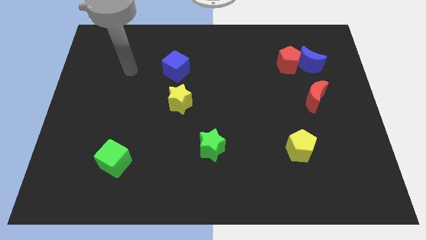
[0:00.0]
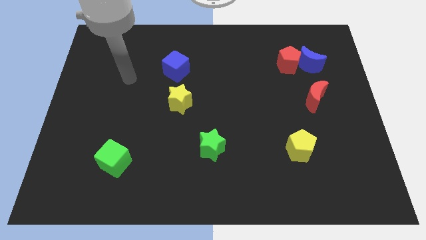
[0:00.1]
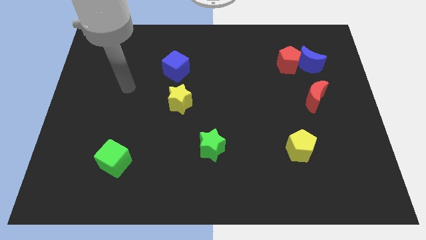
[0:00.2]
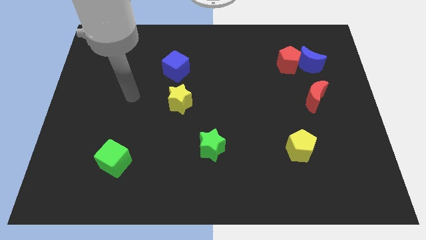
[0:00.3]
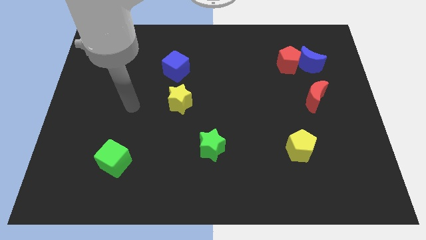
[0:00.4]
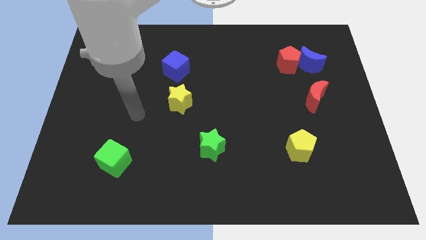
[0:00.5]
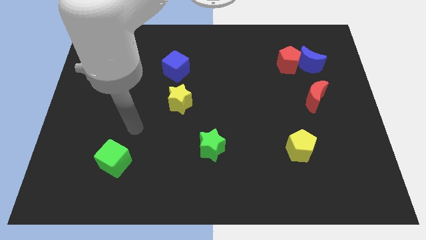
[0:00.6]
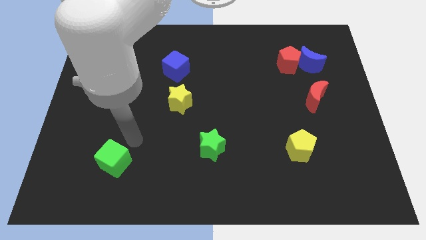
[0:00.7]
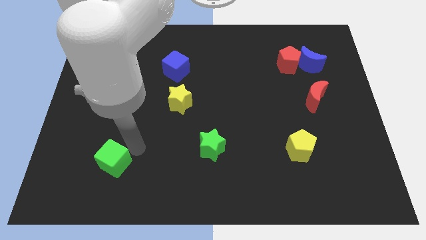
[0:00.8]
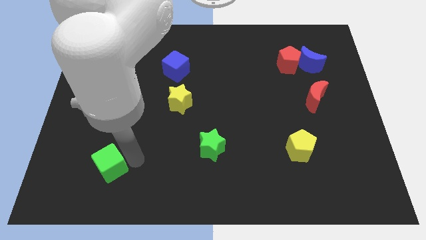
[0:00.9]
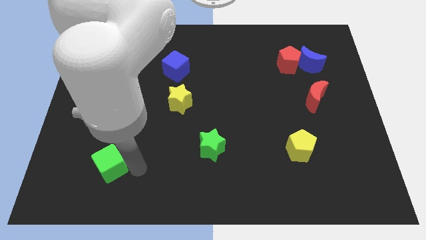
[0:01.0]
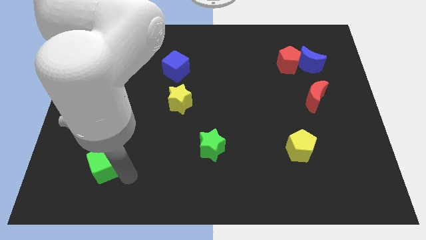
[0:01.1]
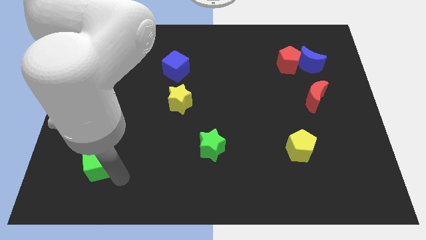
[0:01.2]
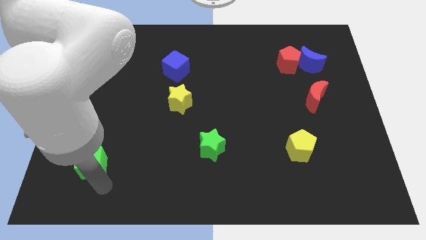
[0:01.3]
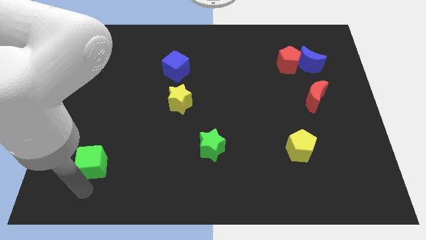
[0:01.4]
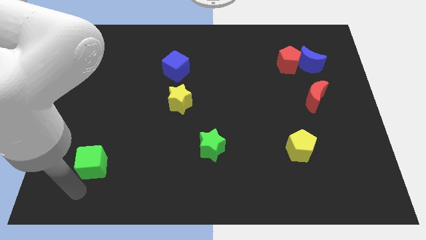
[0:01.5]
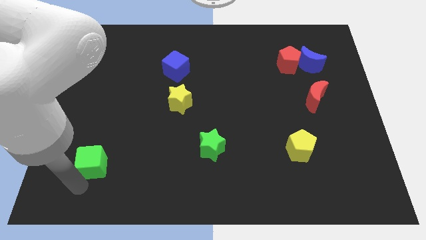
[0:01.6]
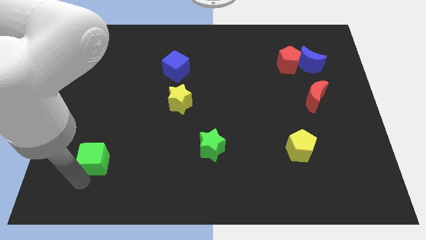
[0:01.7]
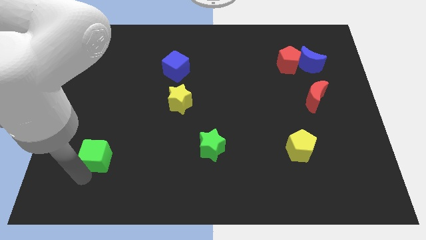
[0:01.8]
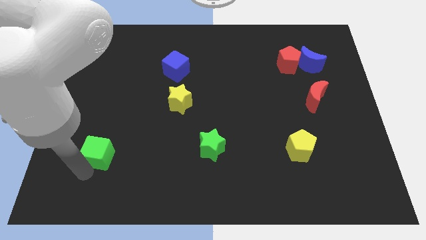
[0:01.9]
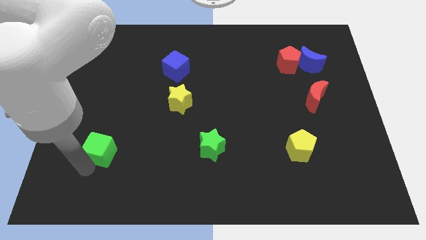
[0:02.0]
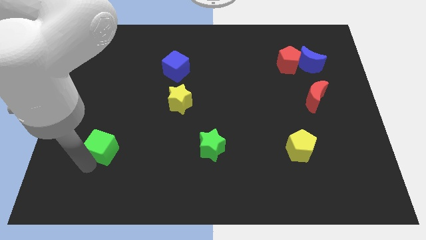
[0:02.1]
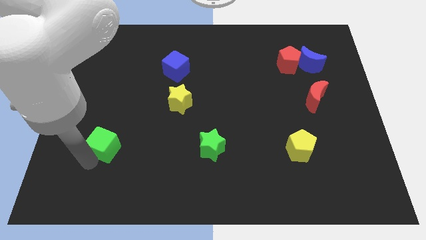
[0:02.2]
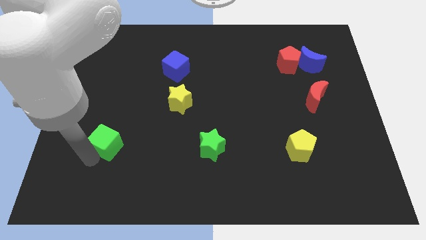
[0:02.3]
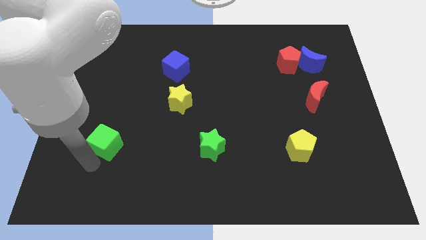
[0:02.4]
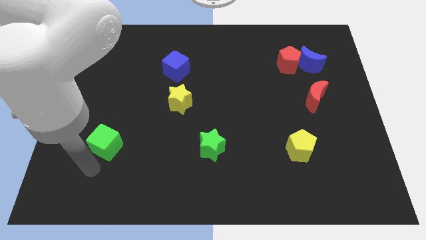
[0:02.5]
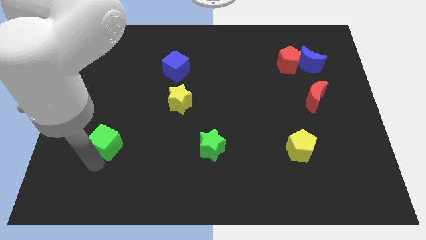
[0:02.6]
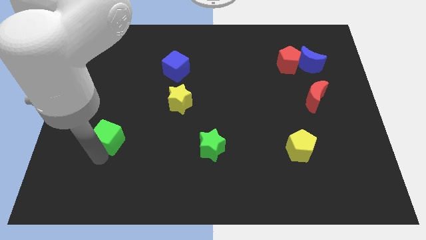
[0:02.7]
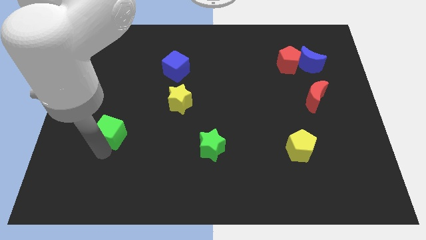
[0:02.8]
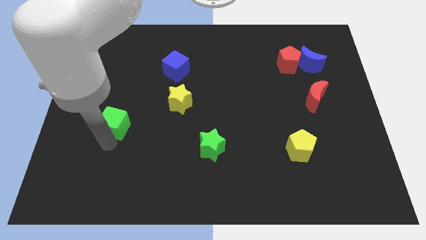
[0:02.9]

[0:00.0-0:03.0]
slightly slide the green cube up

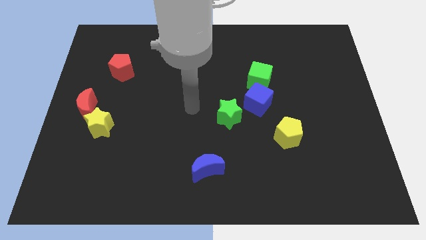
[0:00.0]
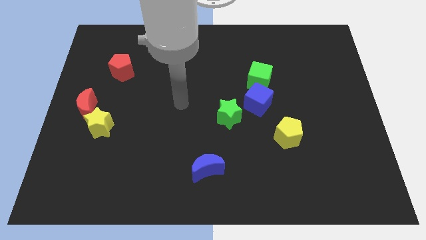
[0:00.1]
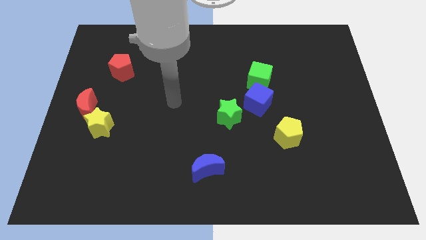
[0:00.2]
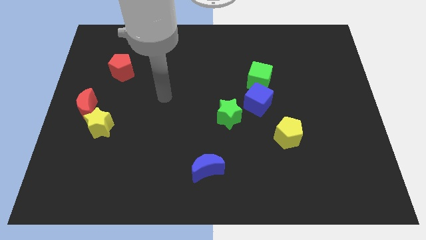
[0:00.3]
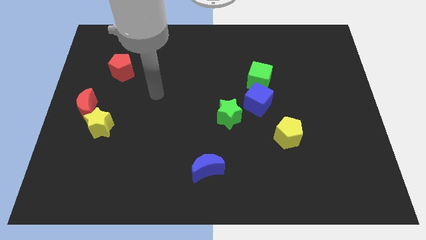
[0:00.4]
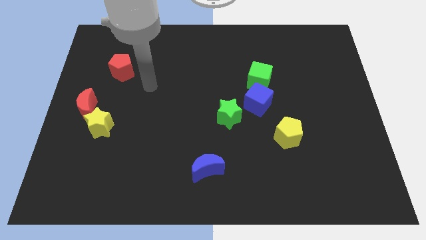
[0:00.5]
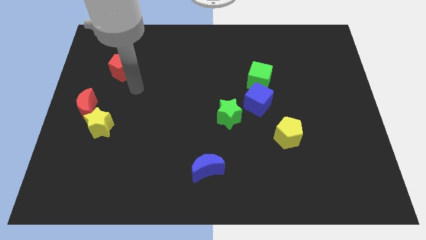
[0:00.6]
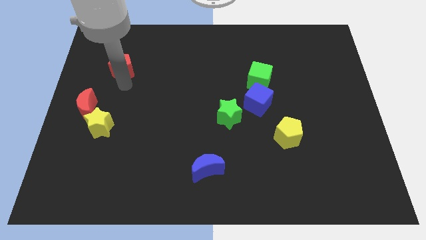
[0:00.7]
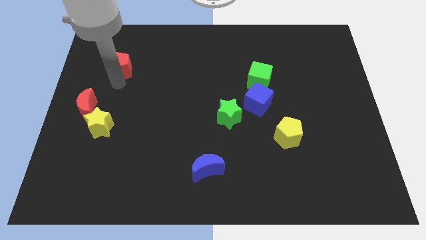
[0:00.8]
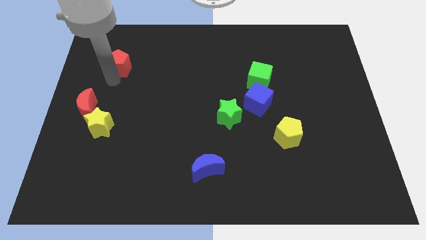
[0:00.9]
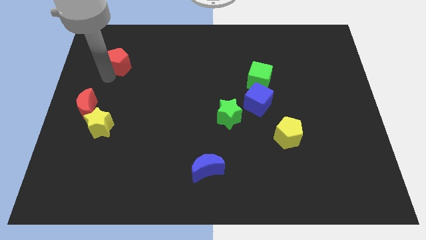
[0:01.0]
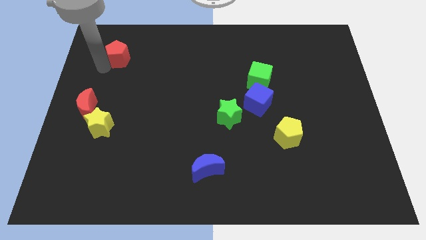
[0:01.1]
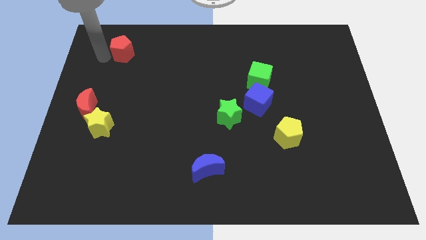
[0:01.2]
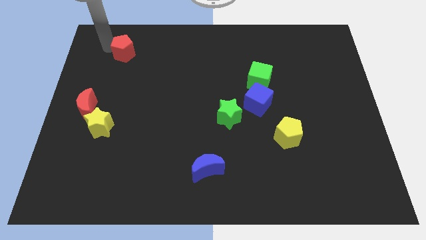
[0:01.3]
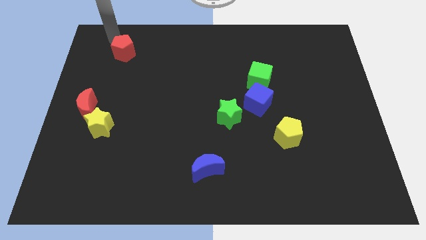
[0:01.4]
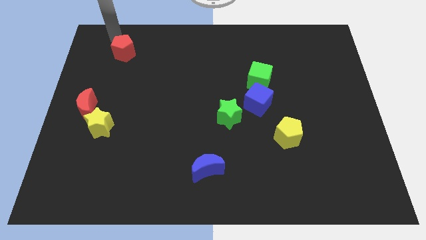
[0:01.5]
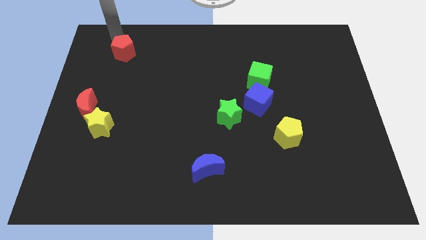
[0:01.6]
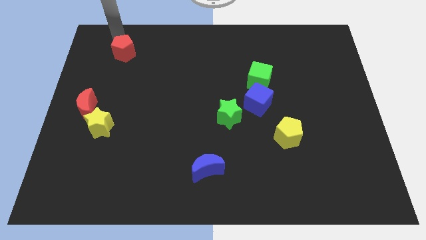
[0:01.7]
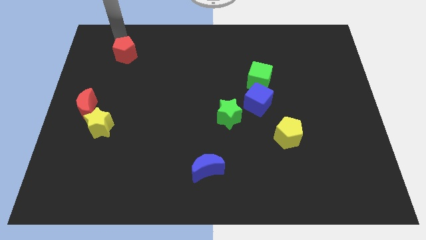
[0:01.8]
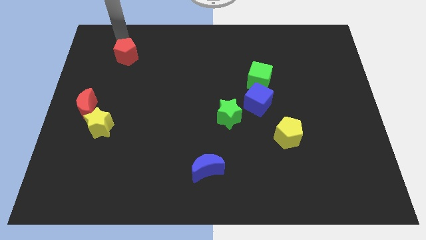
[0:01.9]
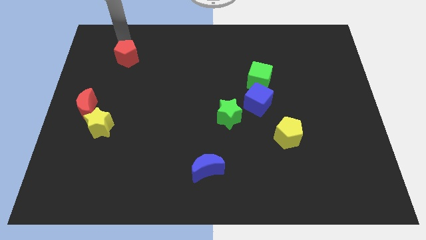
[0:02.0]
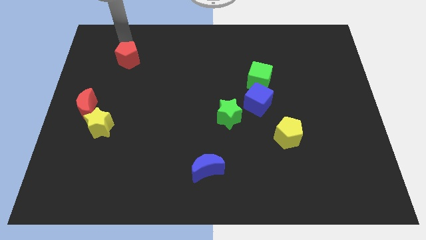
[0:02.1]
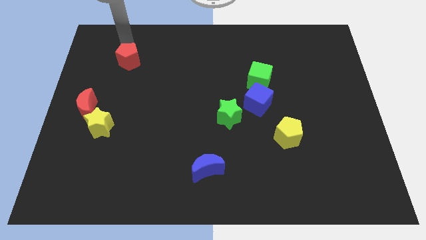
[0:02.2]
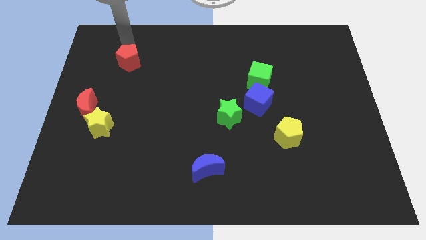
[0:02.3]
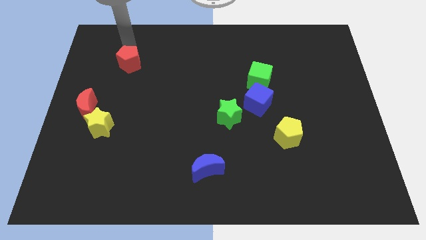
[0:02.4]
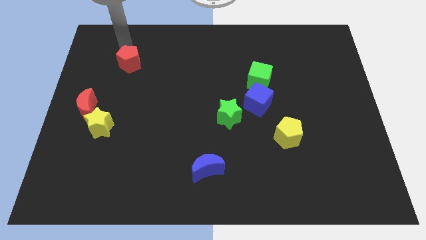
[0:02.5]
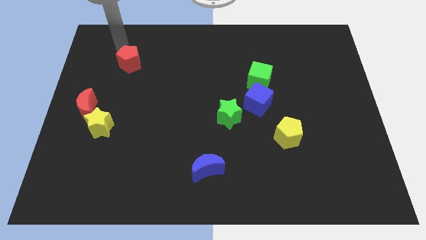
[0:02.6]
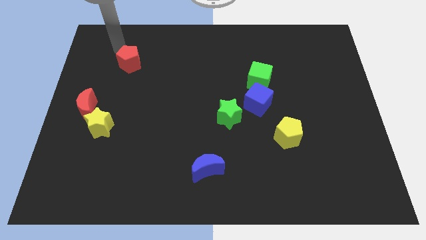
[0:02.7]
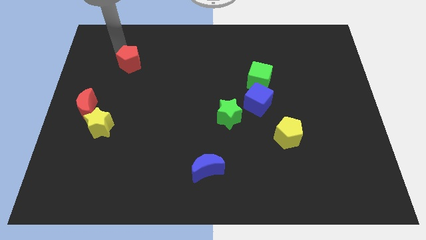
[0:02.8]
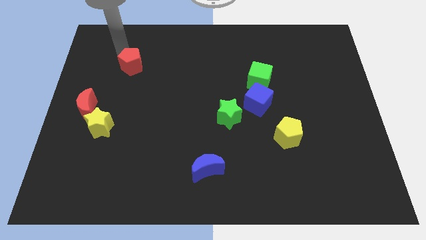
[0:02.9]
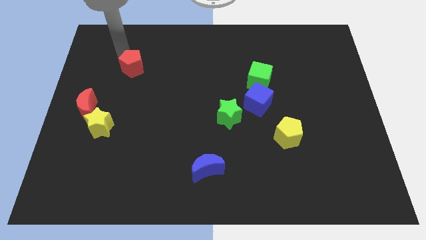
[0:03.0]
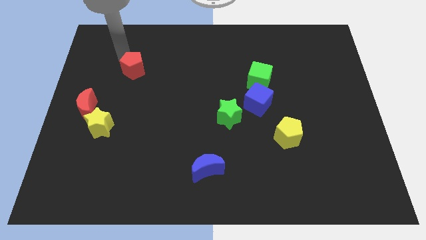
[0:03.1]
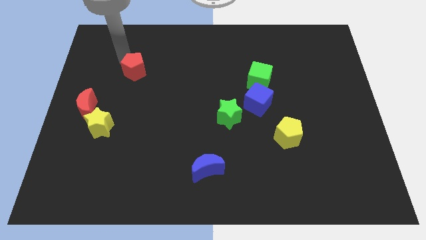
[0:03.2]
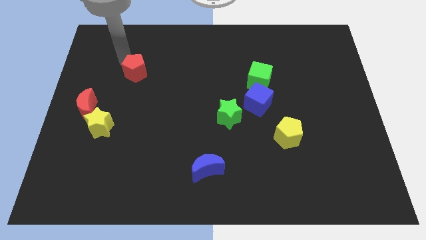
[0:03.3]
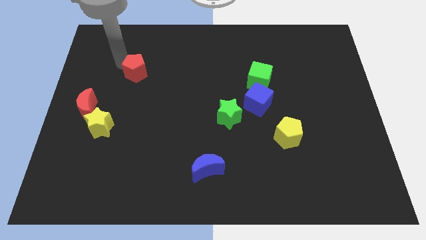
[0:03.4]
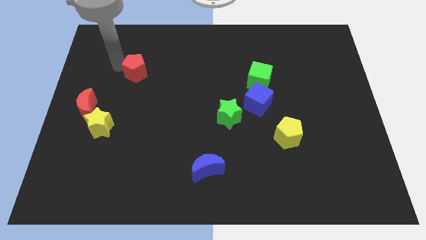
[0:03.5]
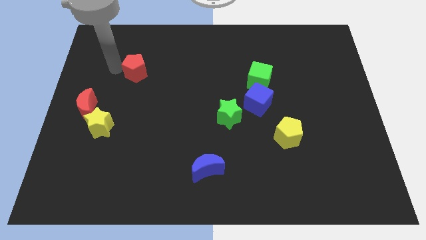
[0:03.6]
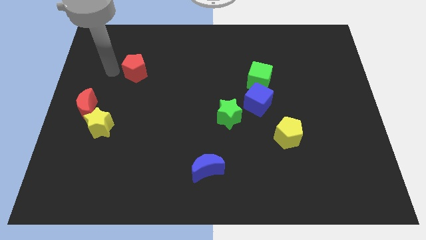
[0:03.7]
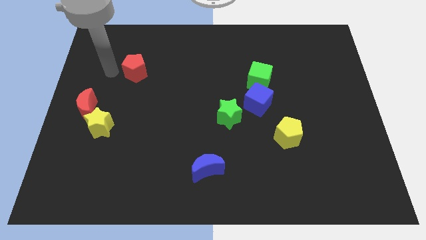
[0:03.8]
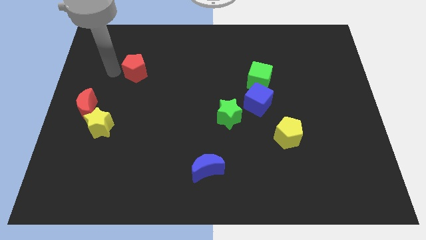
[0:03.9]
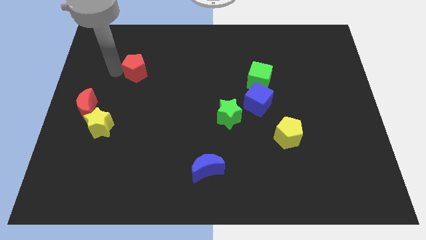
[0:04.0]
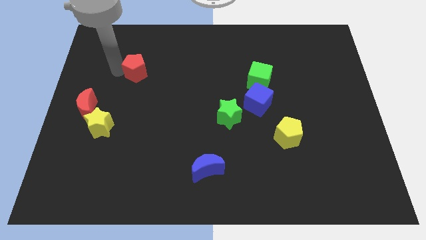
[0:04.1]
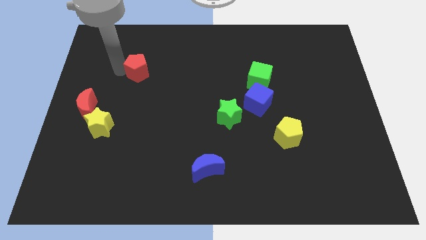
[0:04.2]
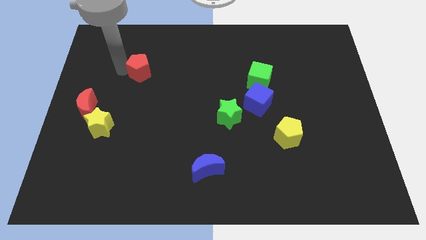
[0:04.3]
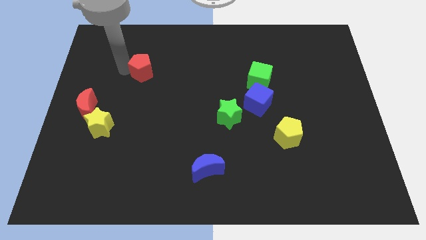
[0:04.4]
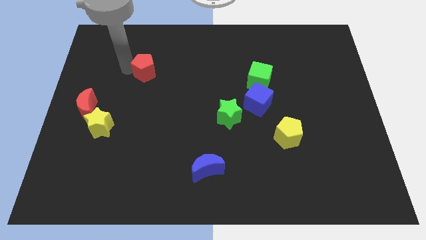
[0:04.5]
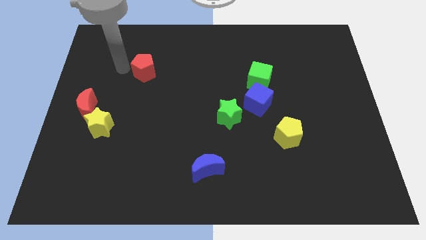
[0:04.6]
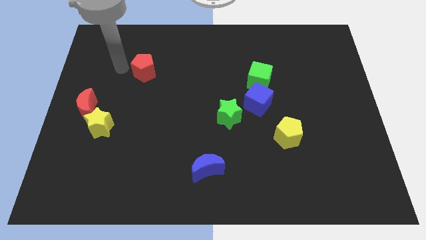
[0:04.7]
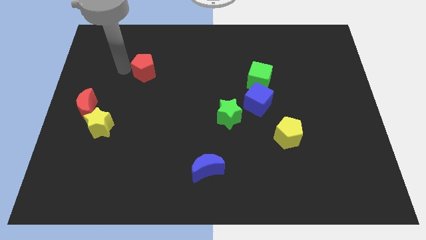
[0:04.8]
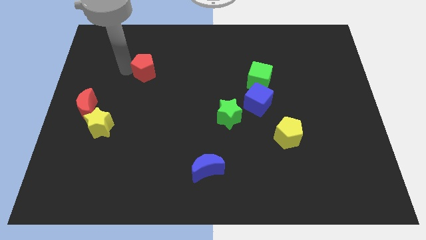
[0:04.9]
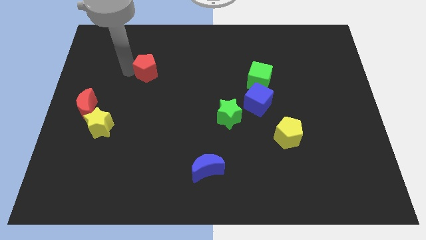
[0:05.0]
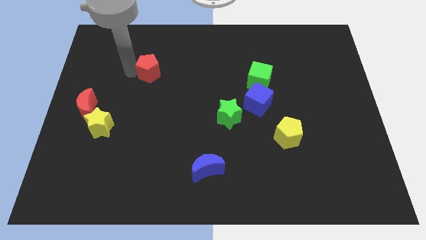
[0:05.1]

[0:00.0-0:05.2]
push the red pentagon right a bit

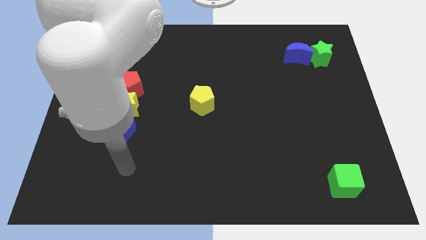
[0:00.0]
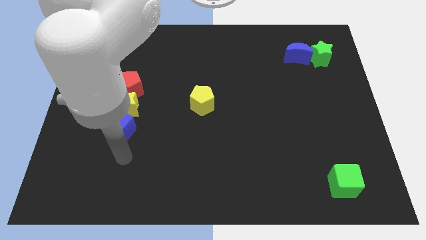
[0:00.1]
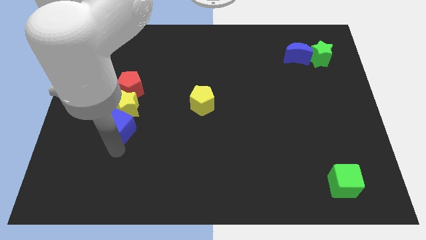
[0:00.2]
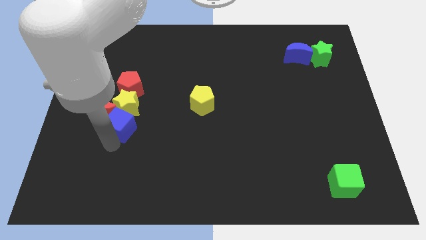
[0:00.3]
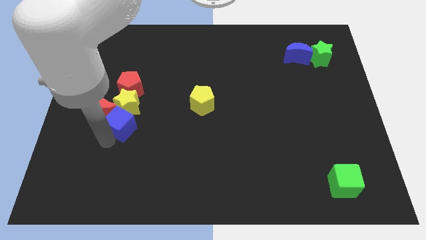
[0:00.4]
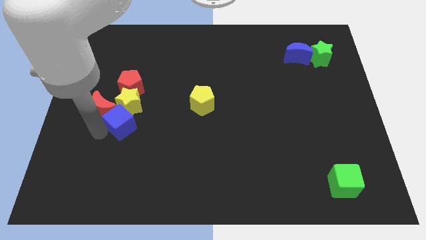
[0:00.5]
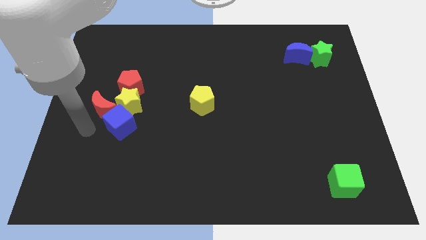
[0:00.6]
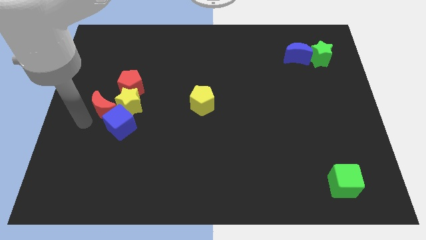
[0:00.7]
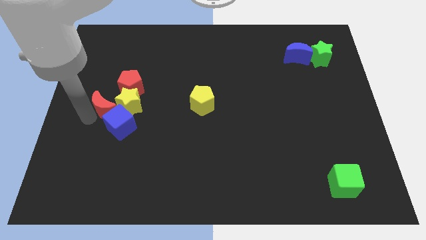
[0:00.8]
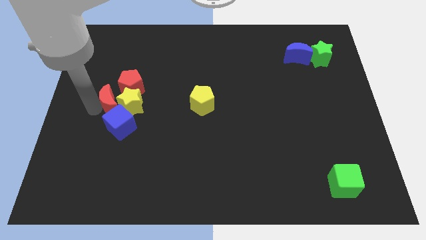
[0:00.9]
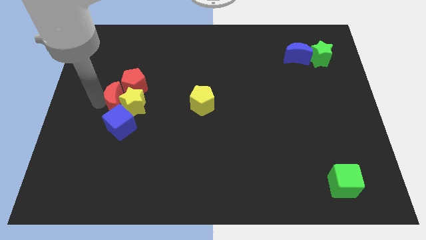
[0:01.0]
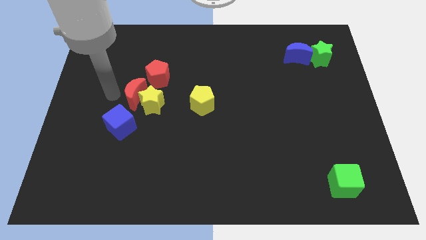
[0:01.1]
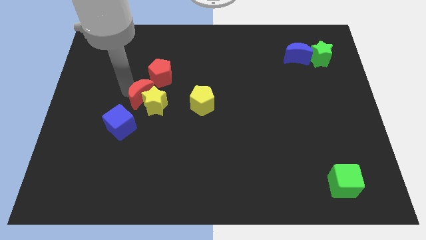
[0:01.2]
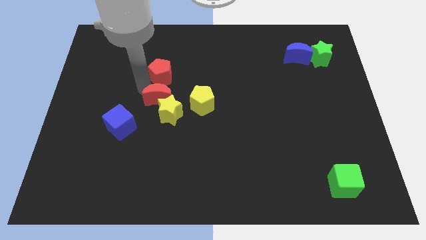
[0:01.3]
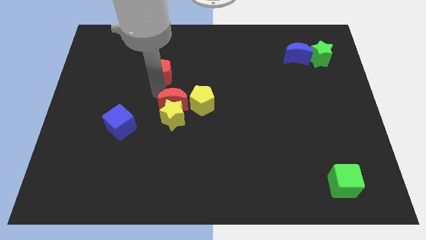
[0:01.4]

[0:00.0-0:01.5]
slide the yellow star a little bit down and to the right
